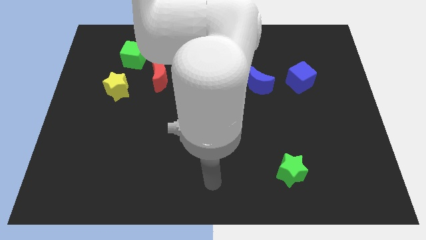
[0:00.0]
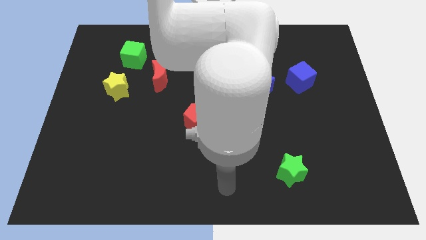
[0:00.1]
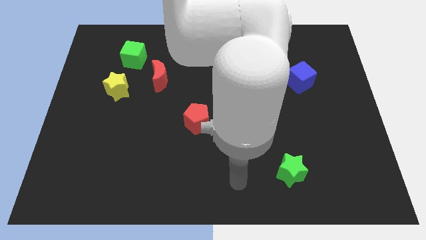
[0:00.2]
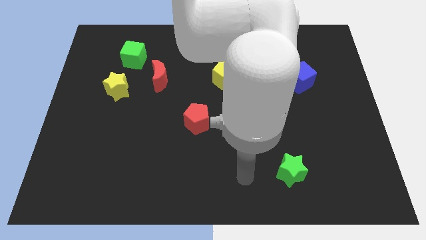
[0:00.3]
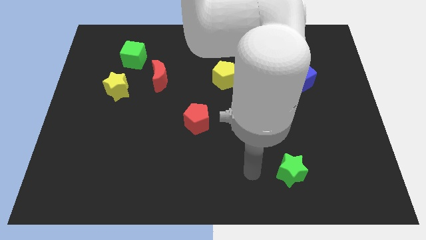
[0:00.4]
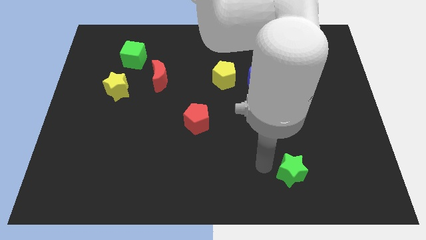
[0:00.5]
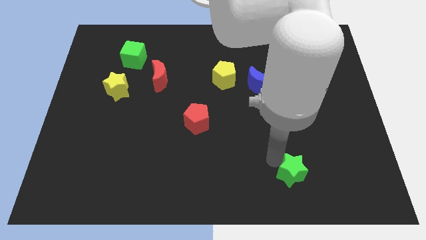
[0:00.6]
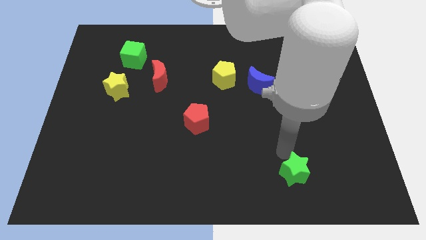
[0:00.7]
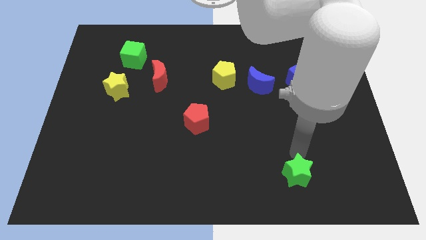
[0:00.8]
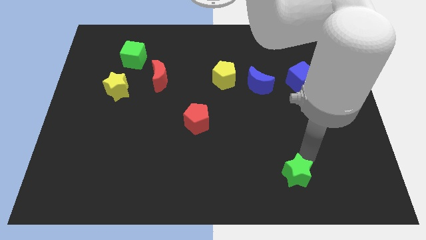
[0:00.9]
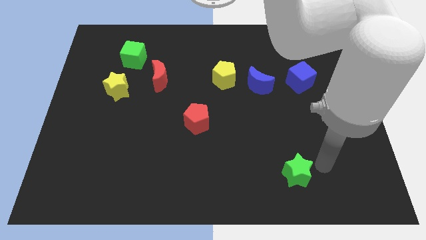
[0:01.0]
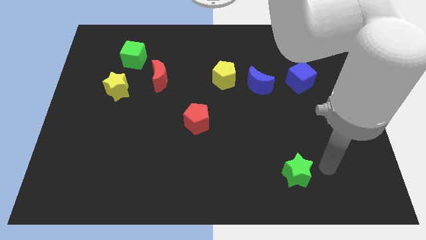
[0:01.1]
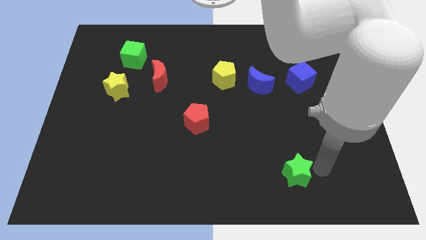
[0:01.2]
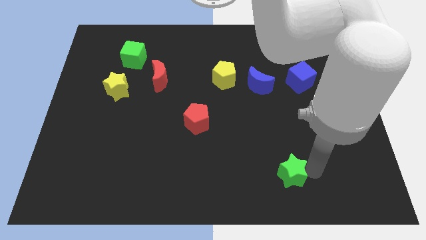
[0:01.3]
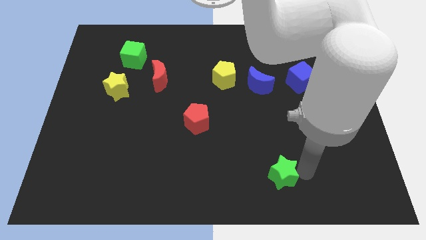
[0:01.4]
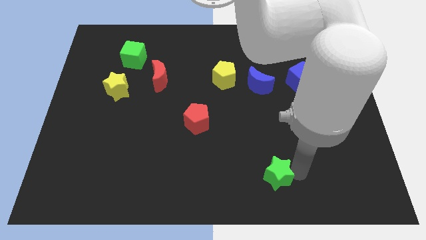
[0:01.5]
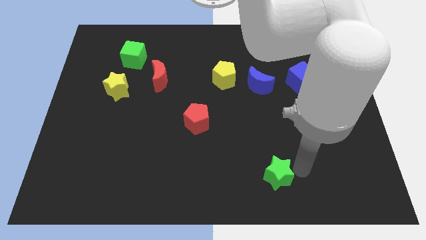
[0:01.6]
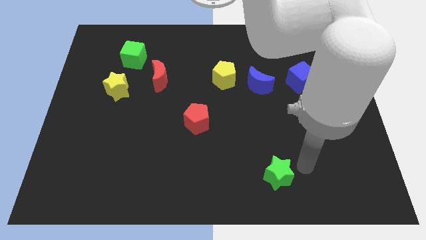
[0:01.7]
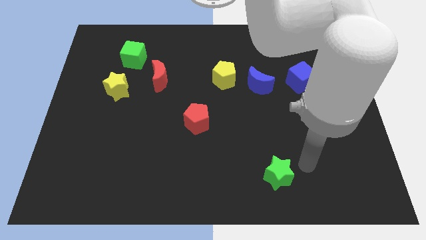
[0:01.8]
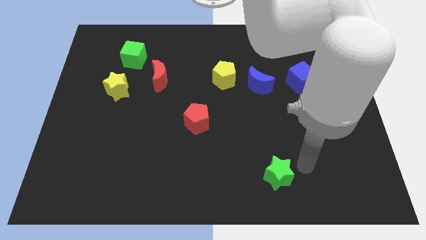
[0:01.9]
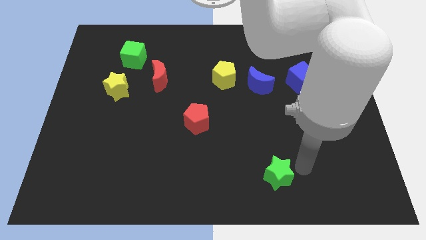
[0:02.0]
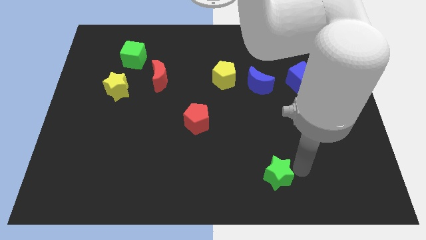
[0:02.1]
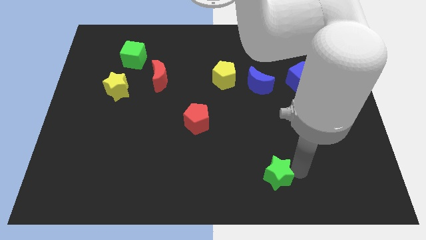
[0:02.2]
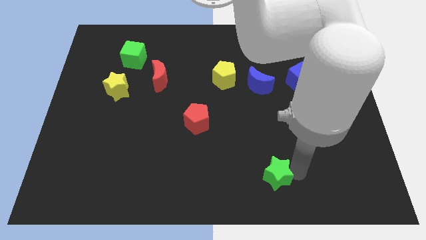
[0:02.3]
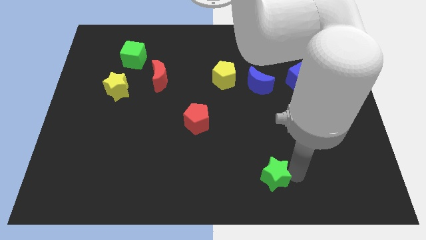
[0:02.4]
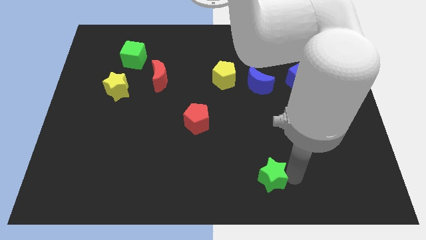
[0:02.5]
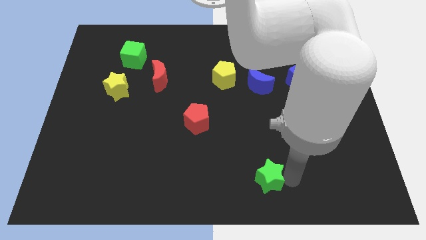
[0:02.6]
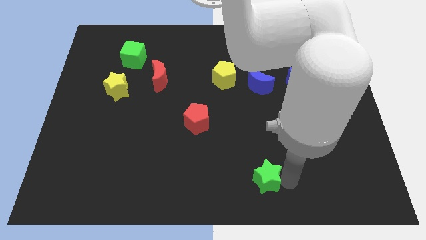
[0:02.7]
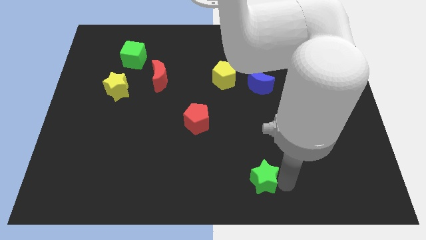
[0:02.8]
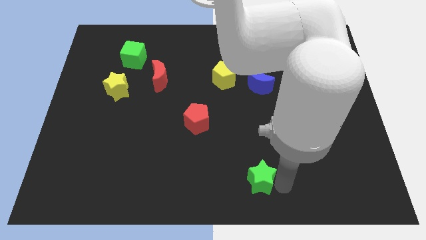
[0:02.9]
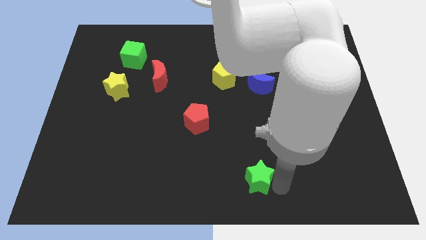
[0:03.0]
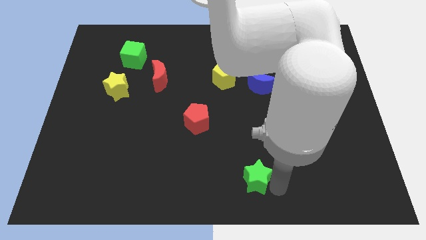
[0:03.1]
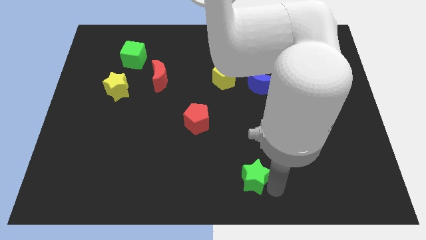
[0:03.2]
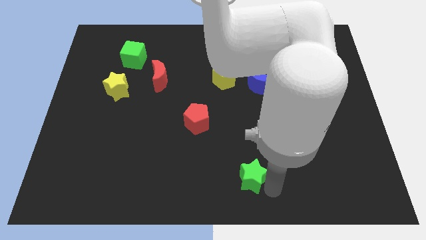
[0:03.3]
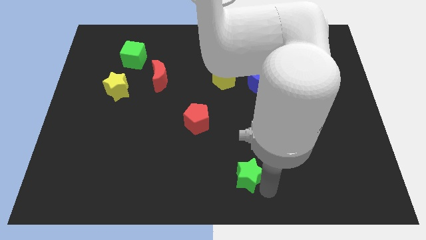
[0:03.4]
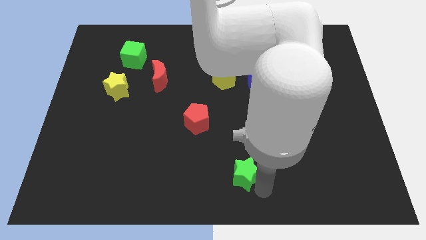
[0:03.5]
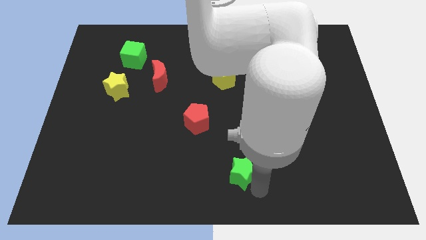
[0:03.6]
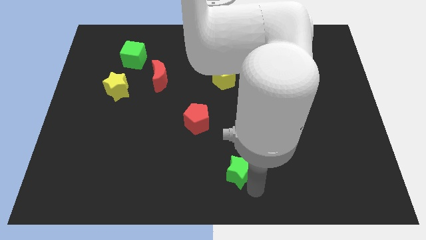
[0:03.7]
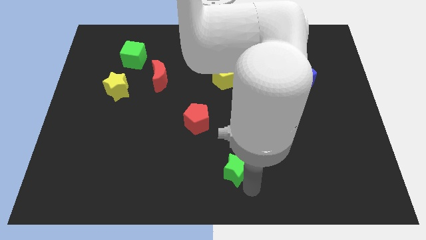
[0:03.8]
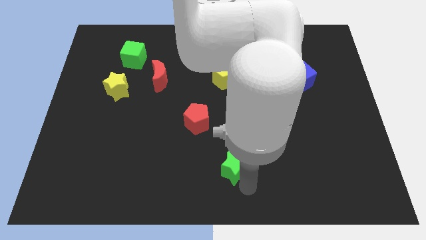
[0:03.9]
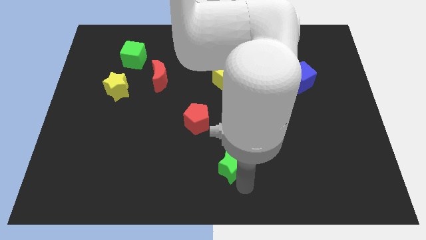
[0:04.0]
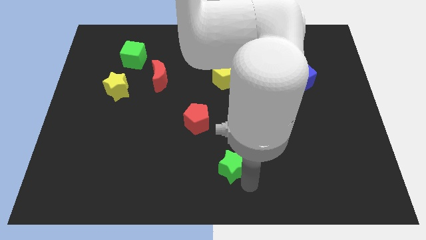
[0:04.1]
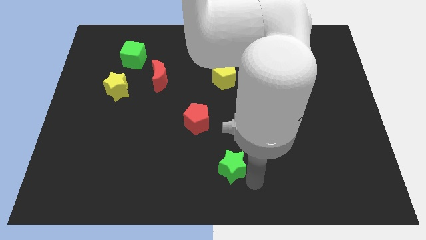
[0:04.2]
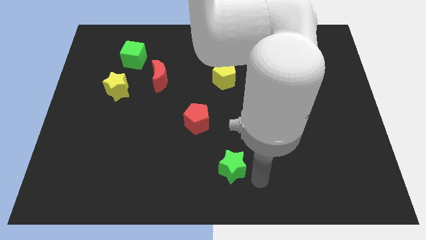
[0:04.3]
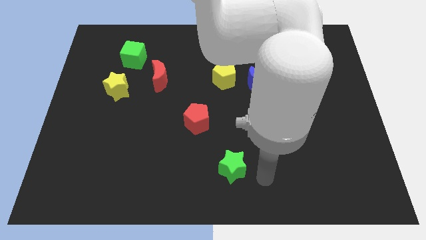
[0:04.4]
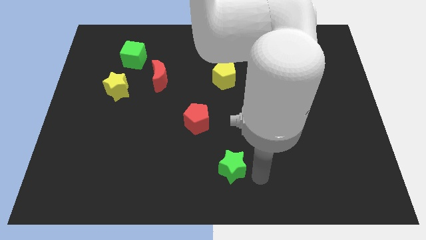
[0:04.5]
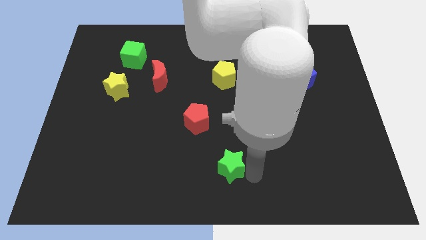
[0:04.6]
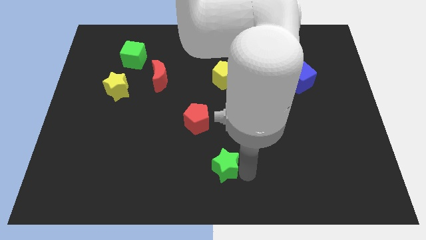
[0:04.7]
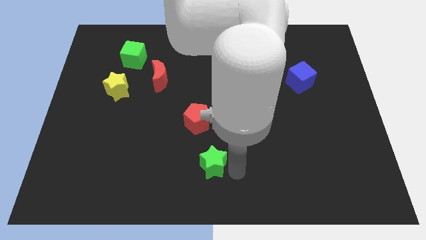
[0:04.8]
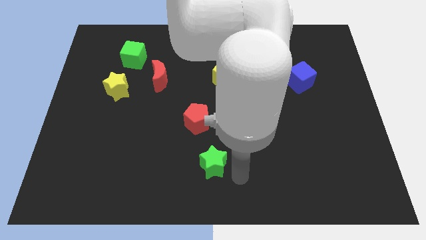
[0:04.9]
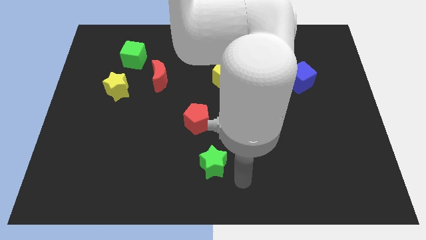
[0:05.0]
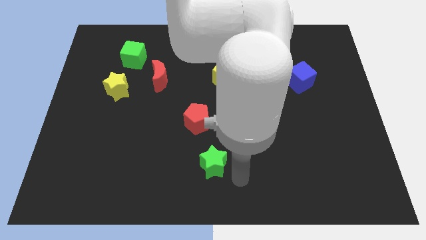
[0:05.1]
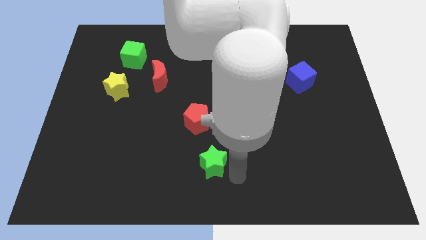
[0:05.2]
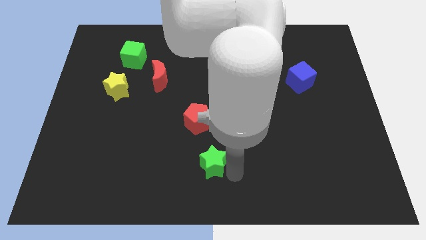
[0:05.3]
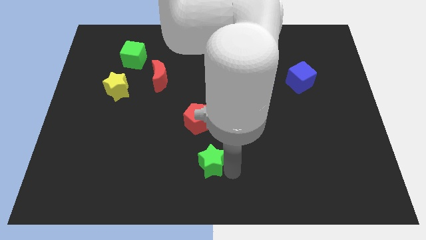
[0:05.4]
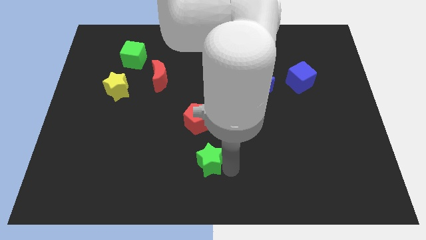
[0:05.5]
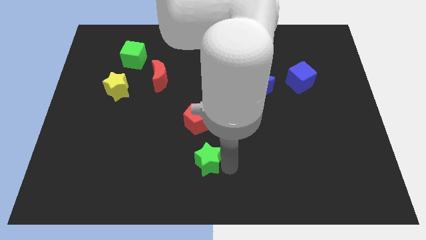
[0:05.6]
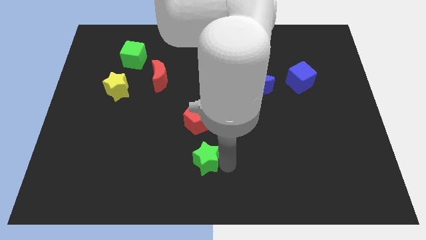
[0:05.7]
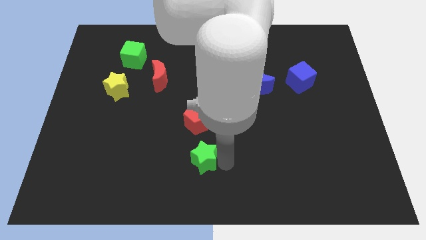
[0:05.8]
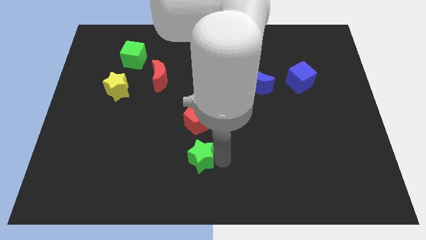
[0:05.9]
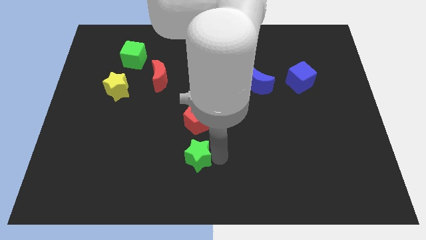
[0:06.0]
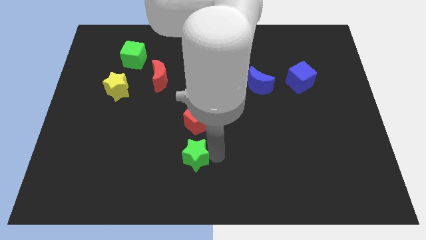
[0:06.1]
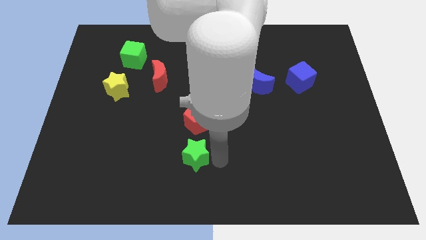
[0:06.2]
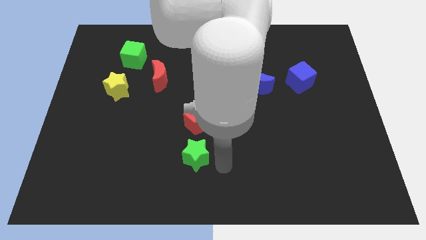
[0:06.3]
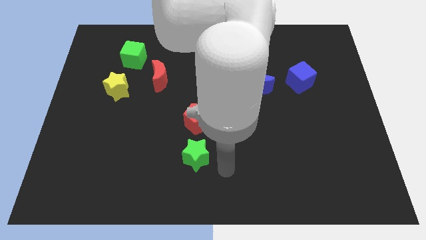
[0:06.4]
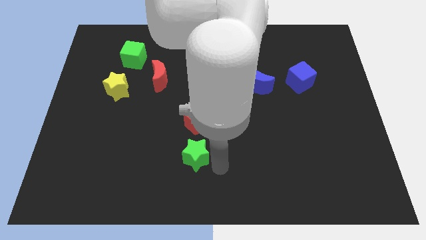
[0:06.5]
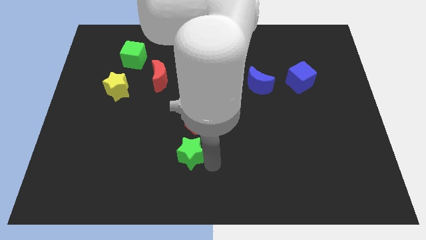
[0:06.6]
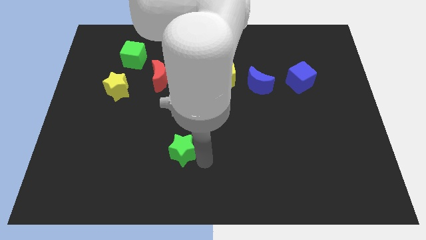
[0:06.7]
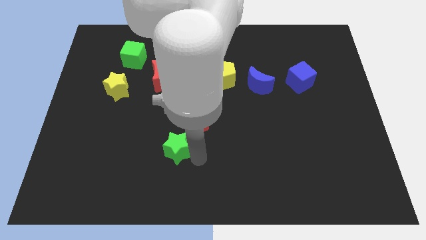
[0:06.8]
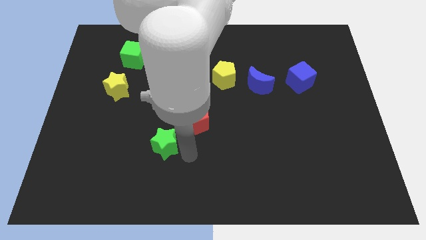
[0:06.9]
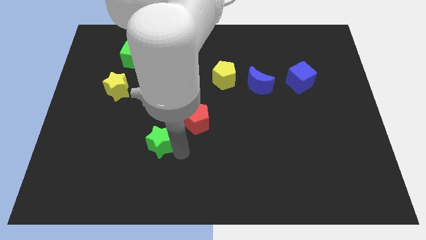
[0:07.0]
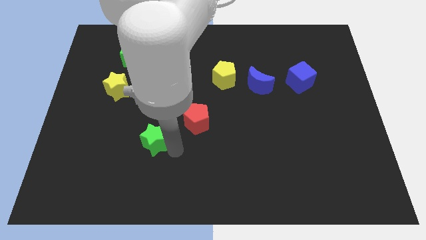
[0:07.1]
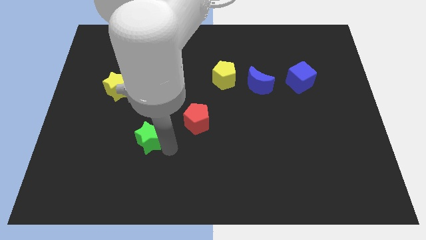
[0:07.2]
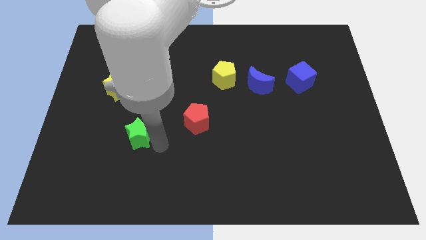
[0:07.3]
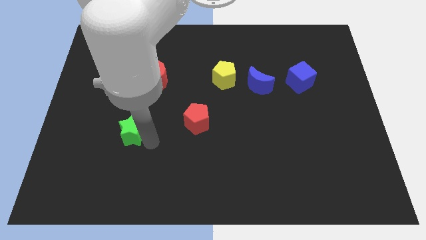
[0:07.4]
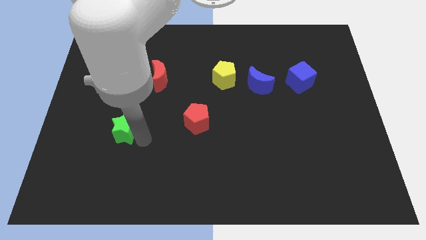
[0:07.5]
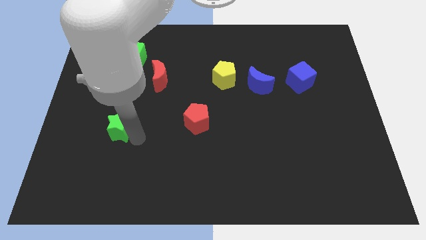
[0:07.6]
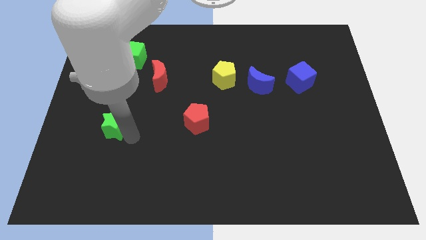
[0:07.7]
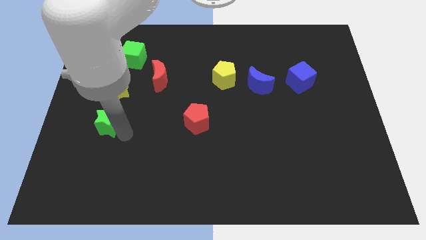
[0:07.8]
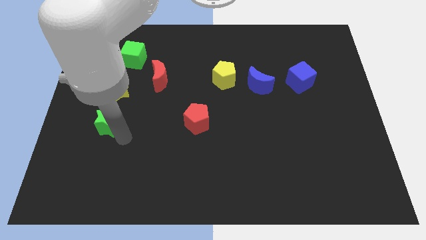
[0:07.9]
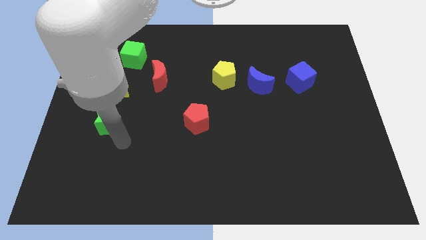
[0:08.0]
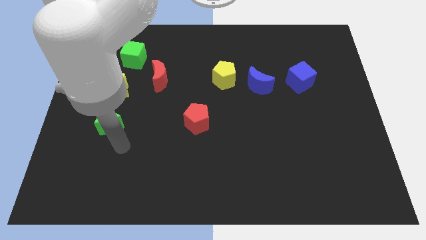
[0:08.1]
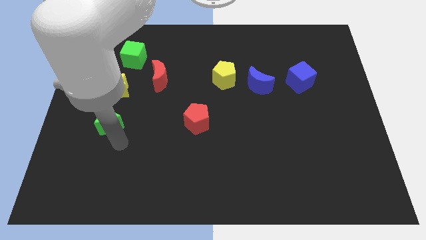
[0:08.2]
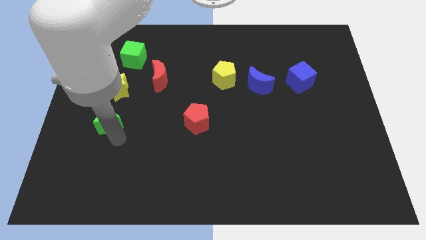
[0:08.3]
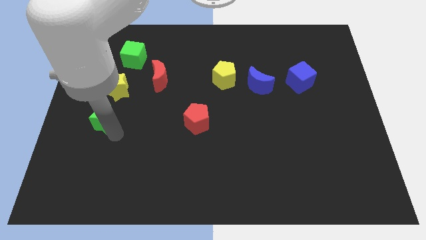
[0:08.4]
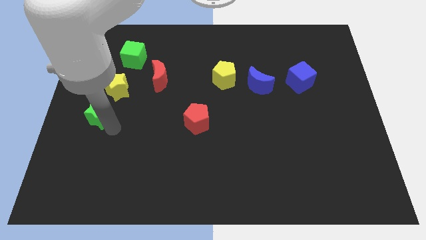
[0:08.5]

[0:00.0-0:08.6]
move the green star to the left side of the board
